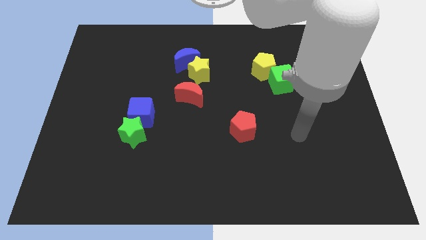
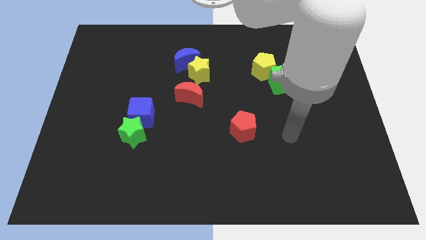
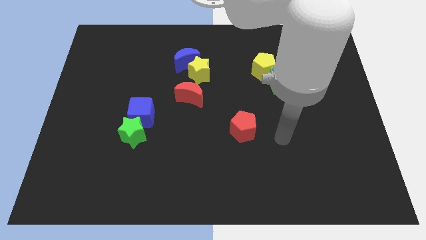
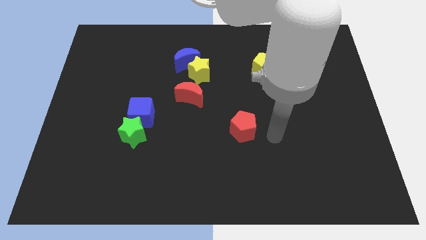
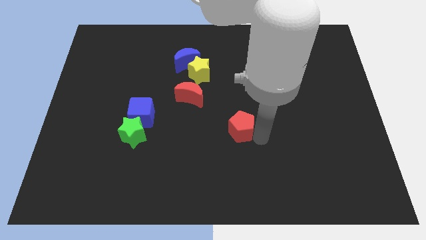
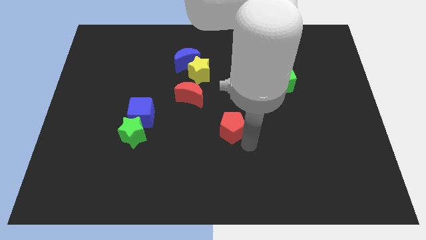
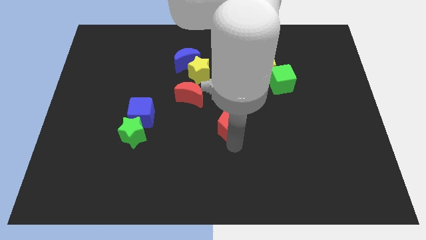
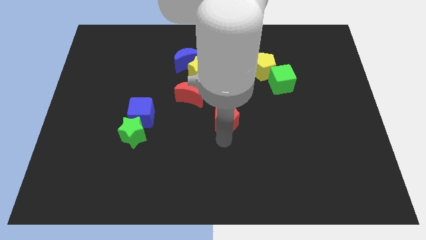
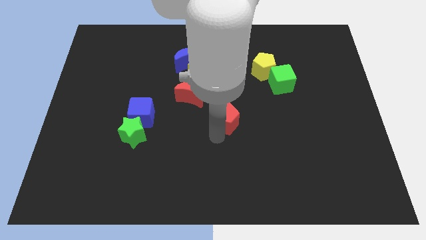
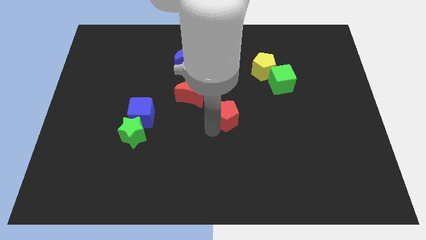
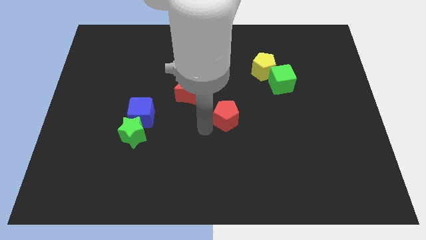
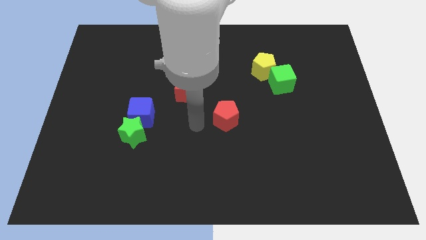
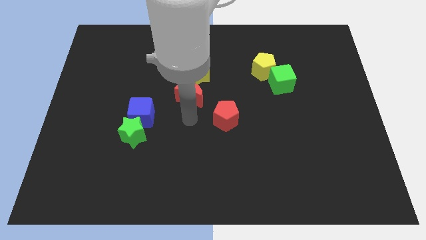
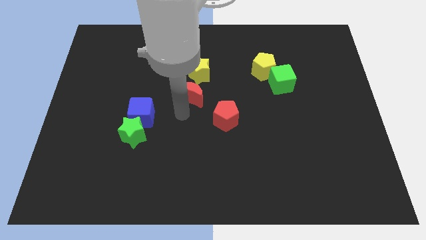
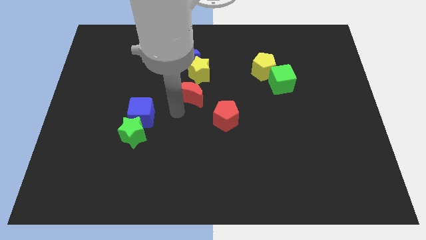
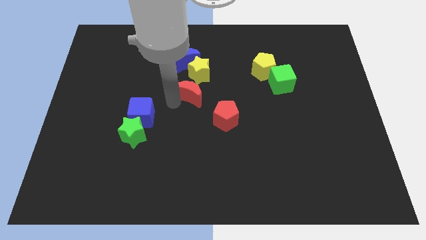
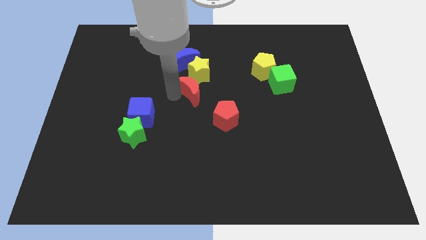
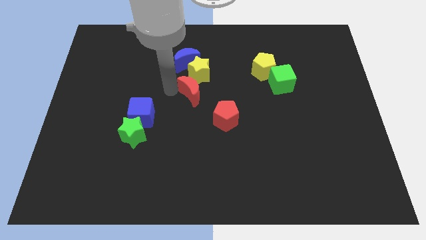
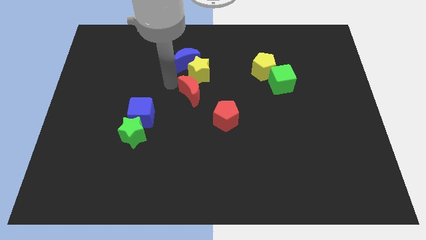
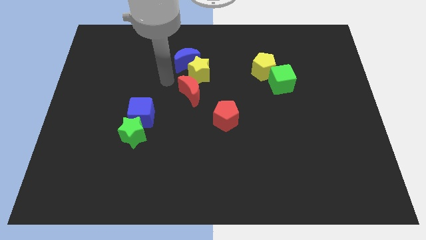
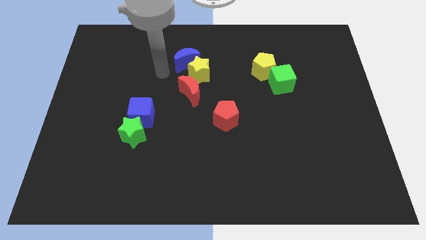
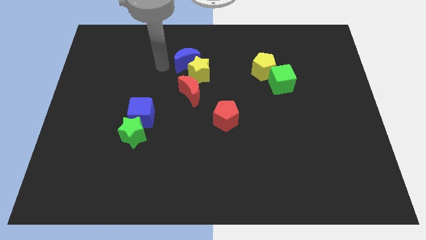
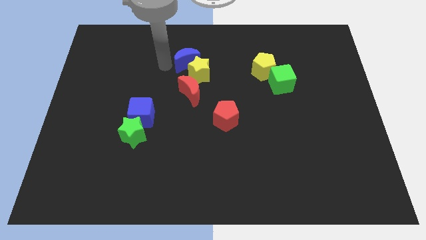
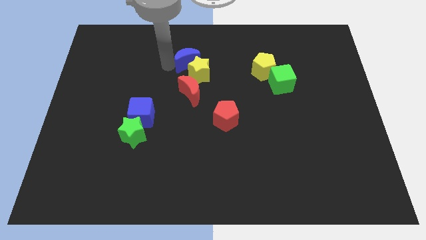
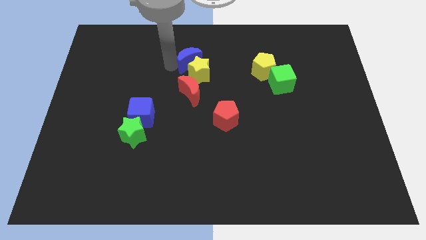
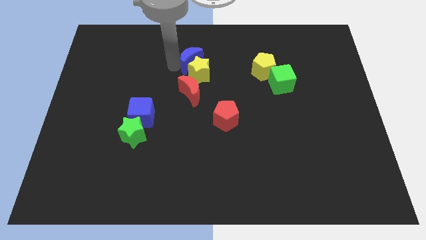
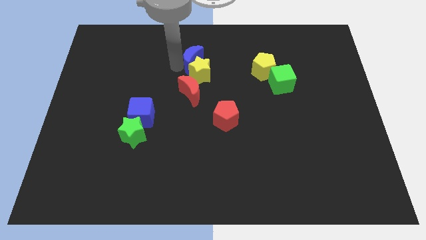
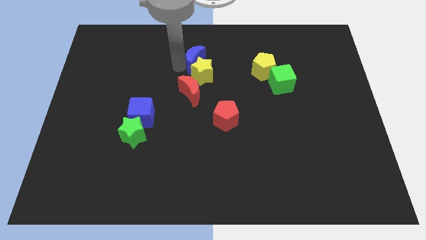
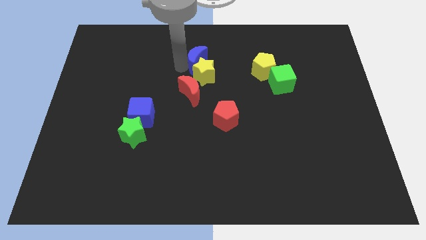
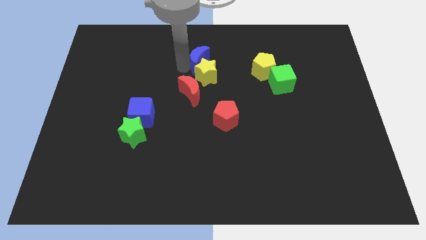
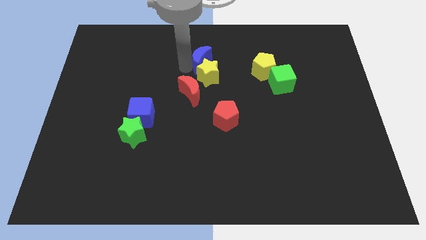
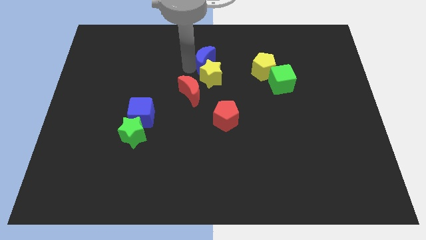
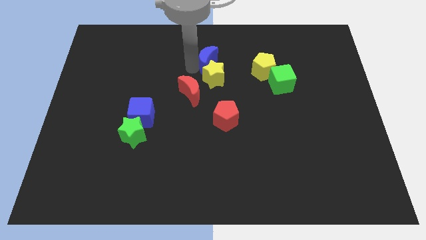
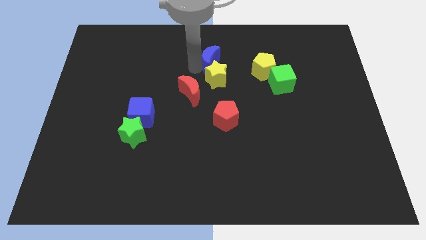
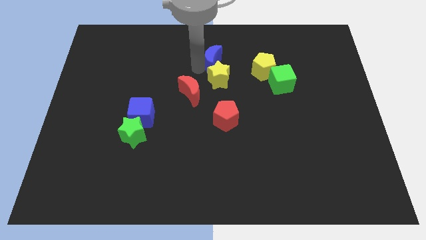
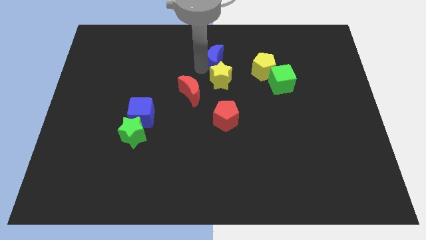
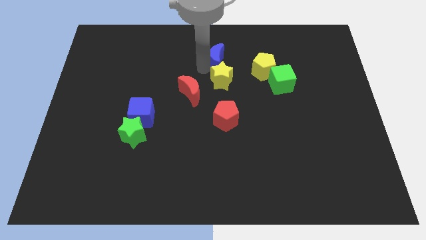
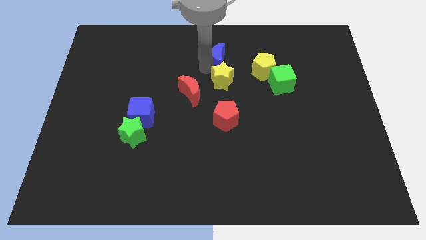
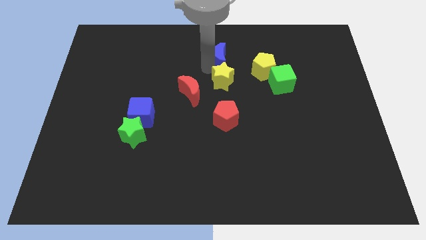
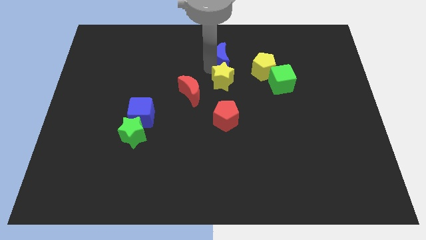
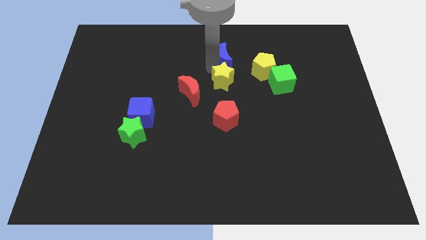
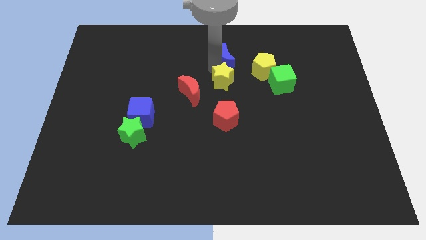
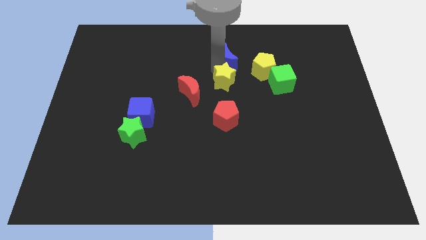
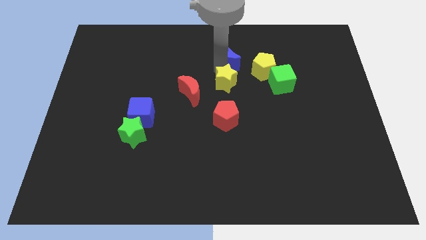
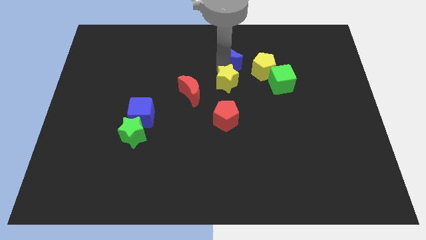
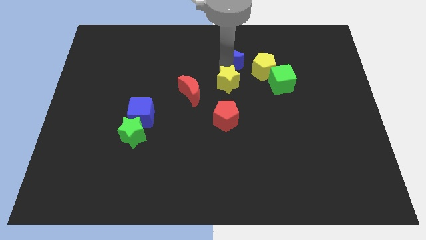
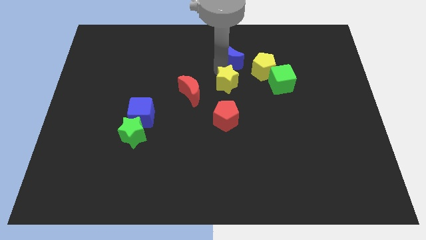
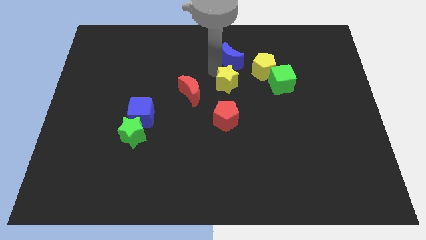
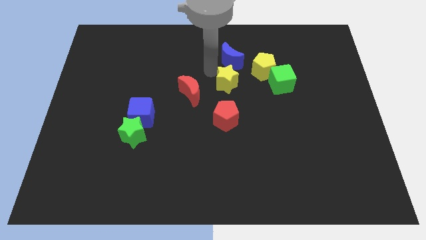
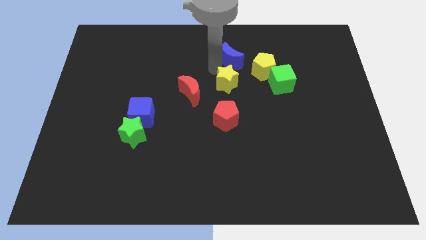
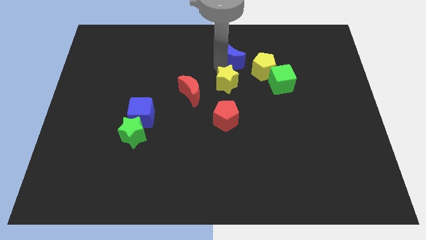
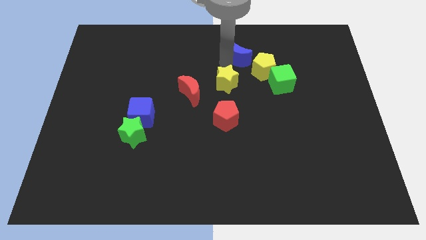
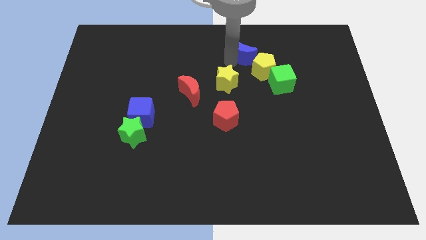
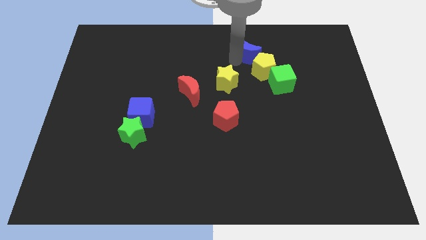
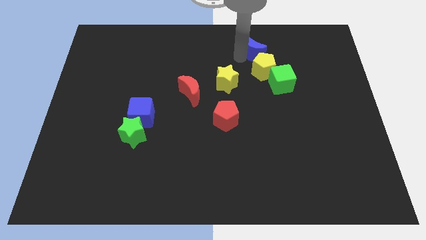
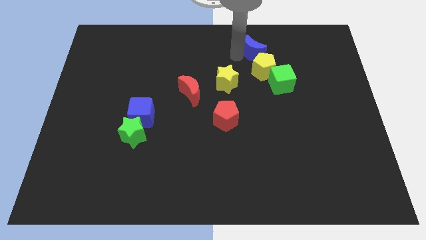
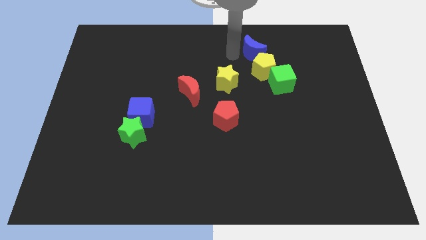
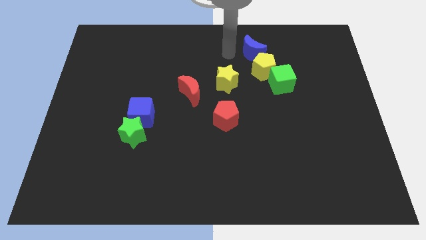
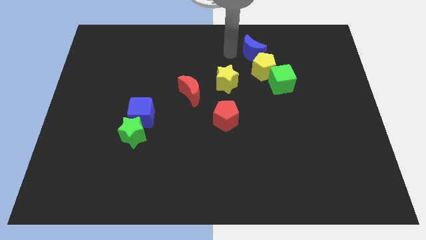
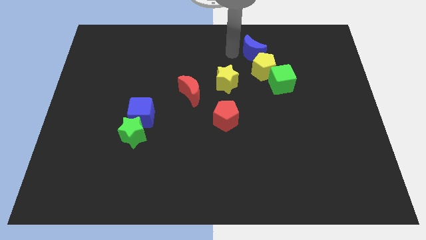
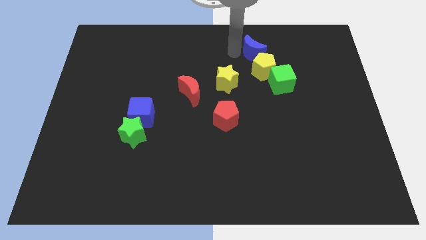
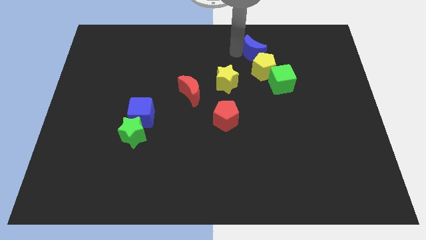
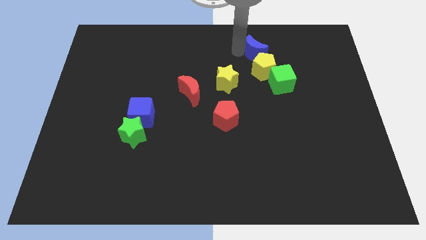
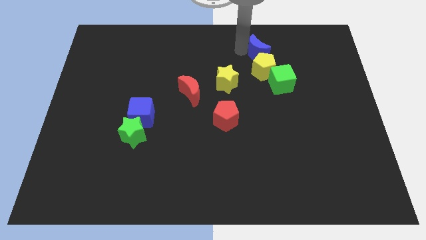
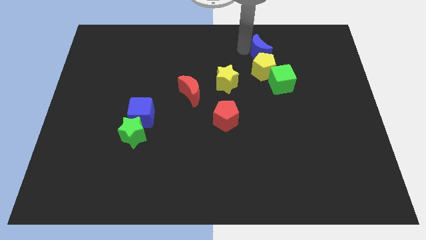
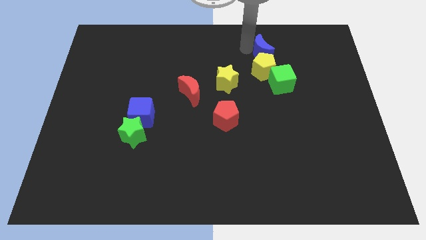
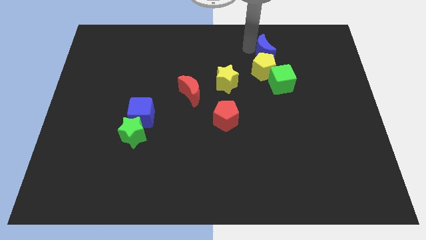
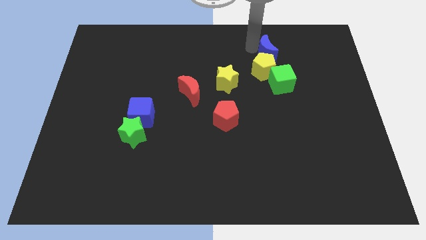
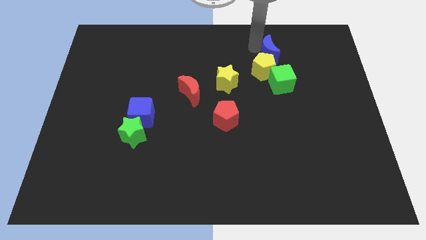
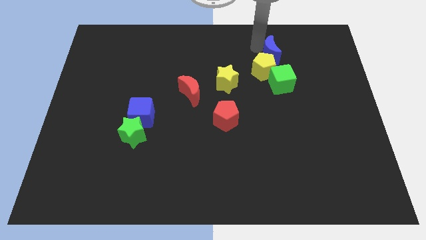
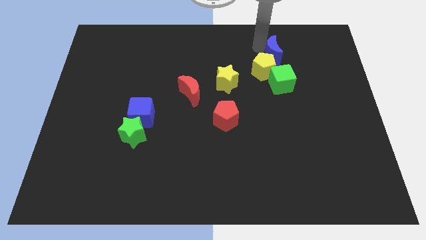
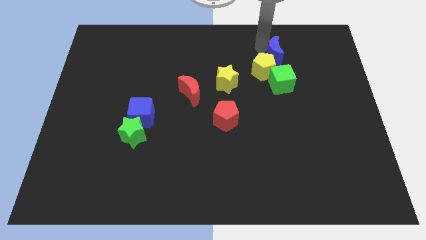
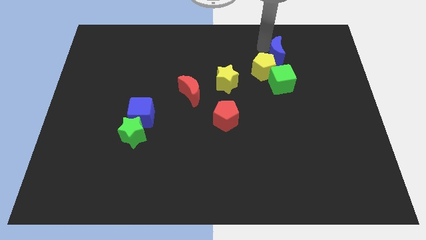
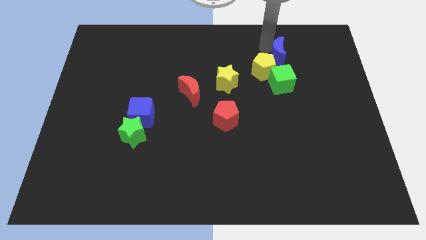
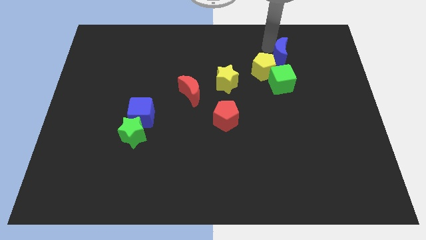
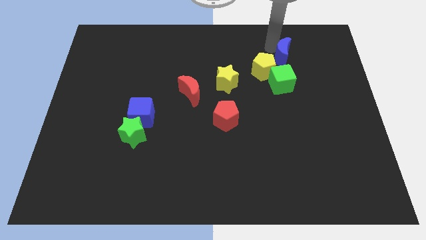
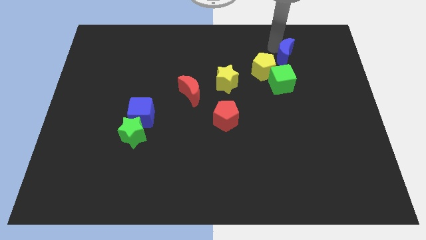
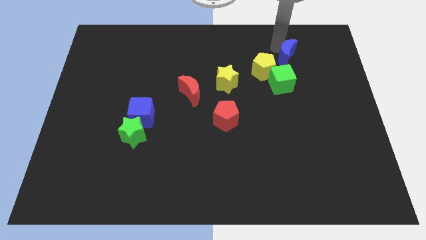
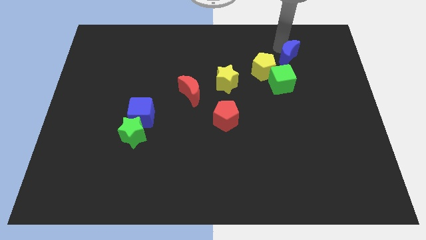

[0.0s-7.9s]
put the blue moon to the top right of the green cube
